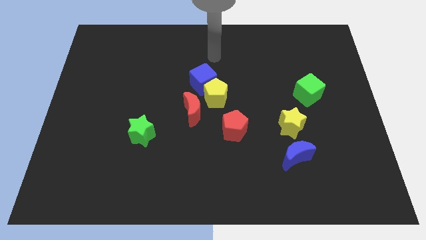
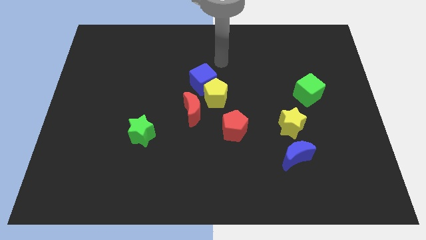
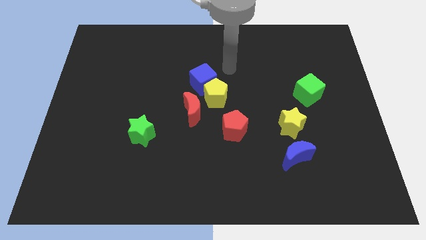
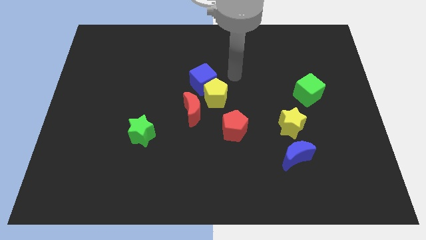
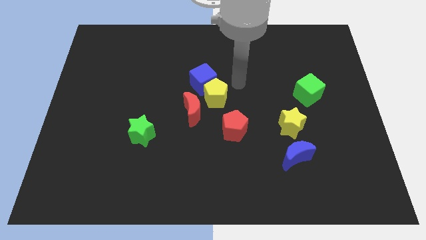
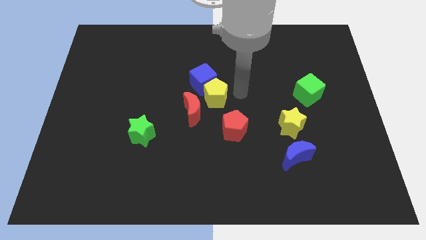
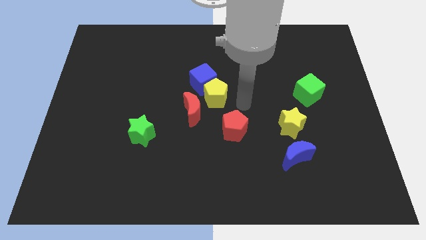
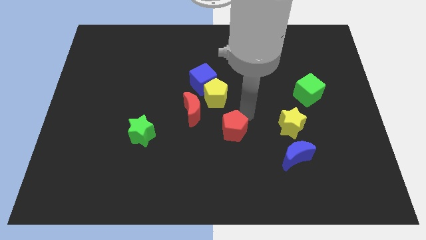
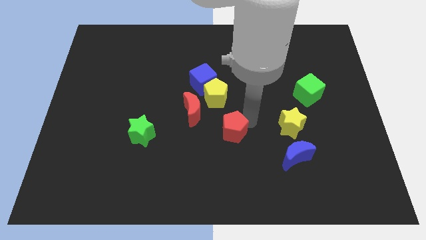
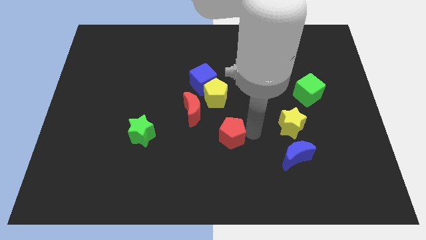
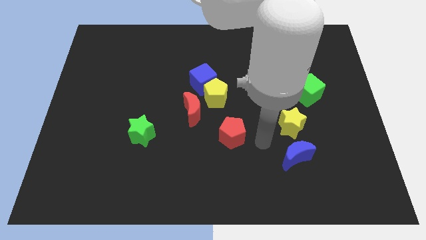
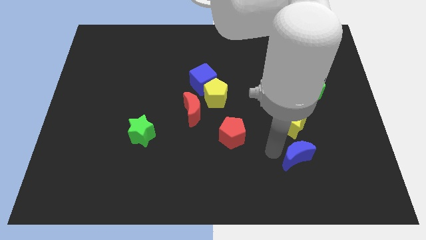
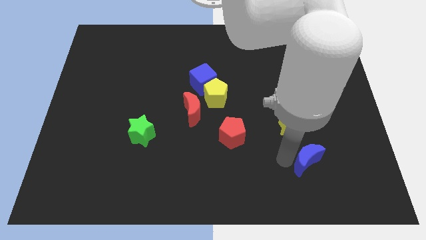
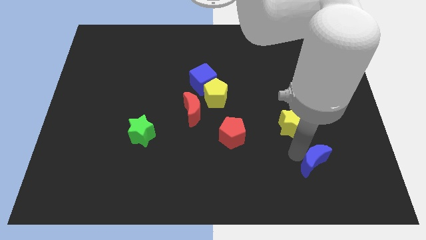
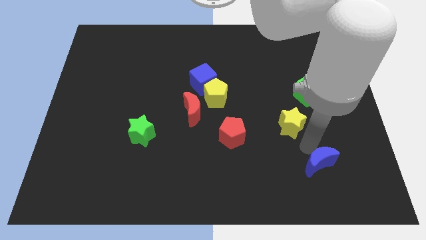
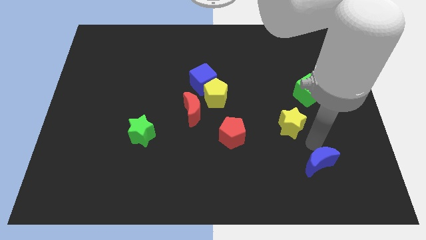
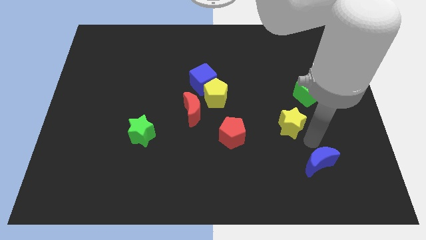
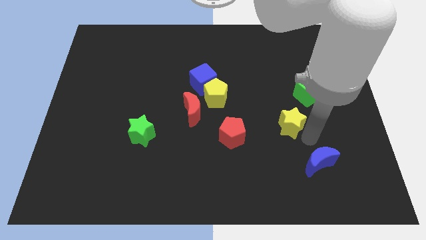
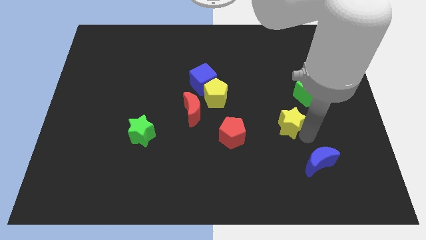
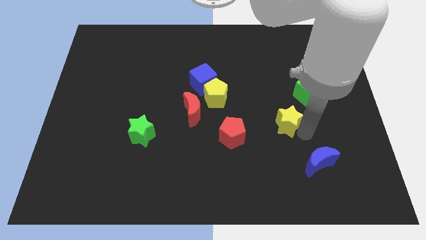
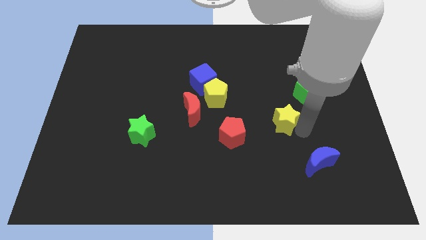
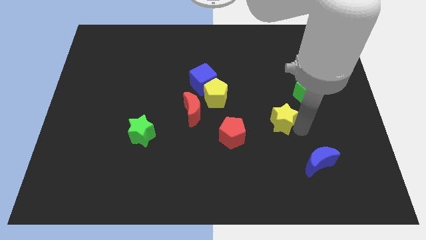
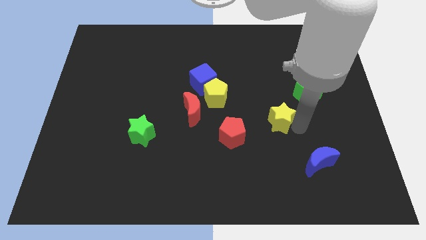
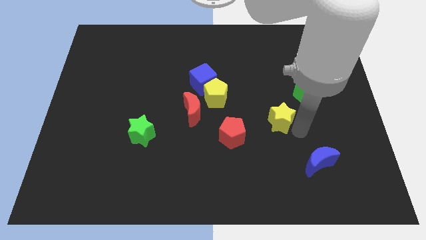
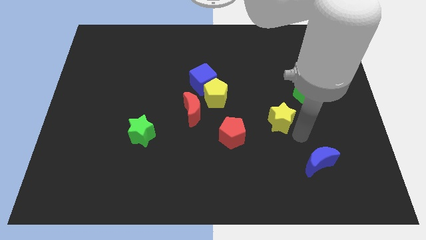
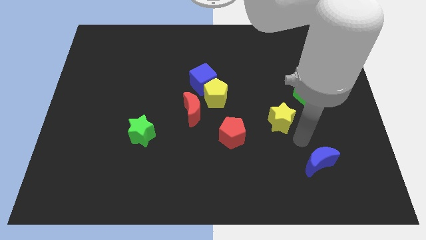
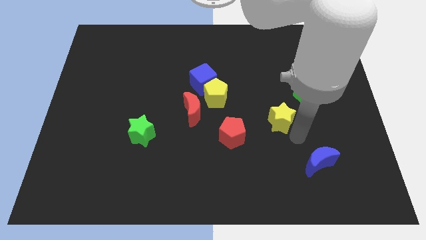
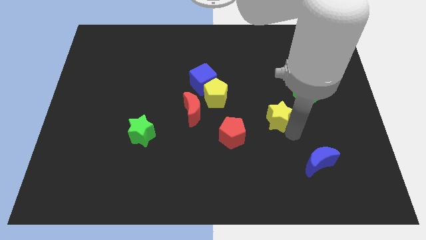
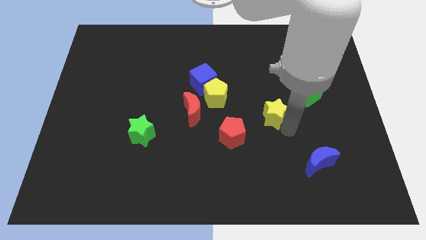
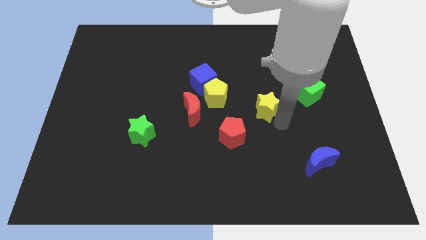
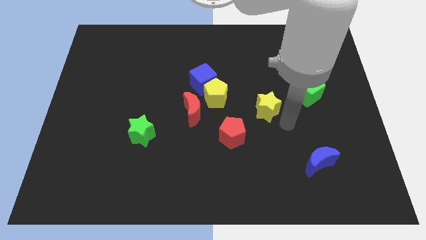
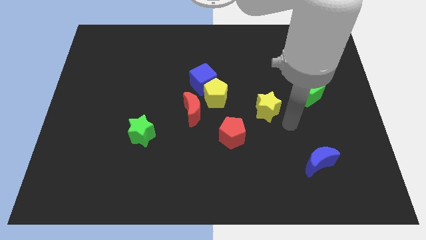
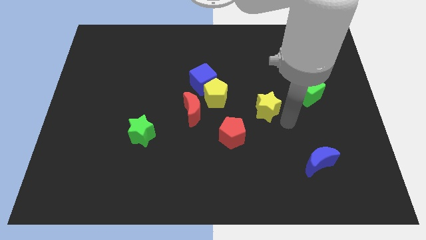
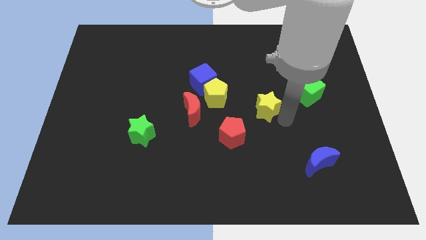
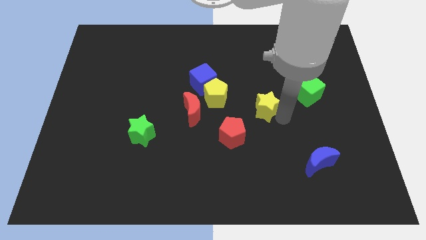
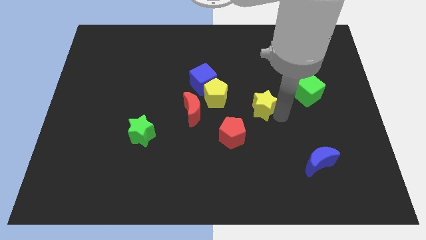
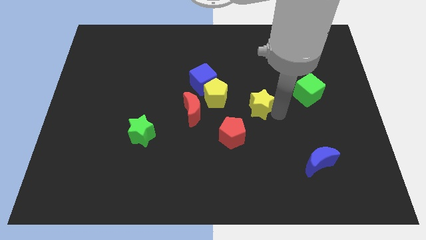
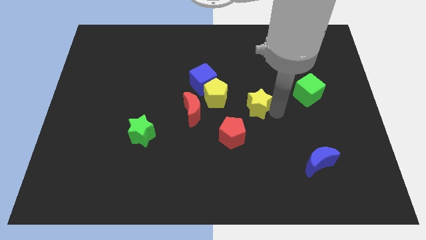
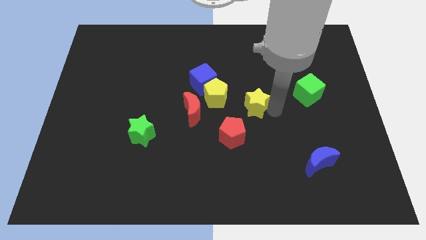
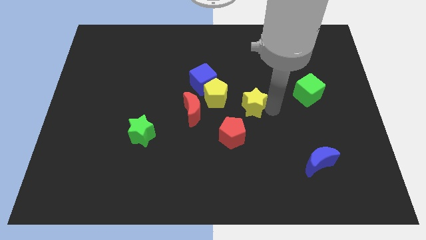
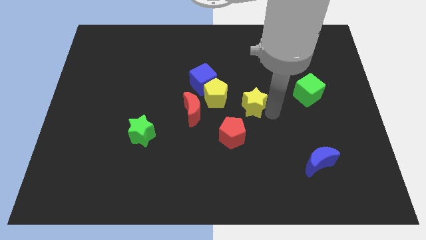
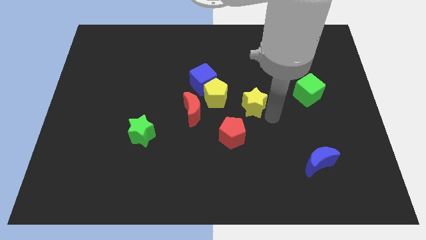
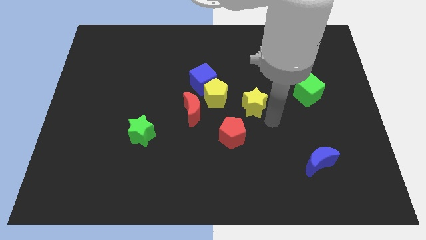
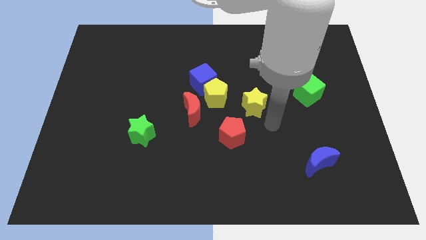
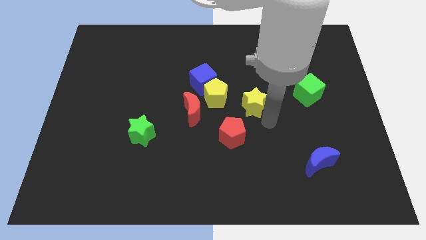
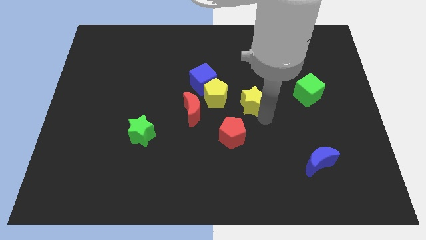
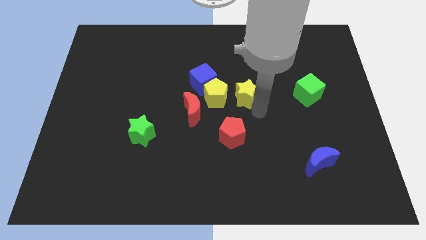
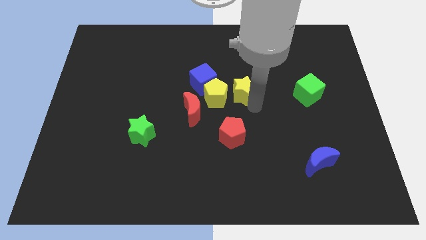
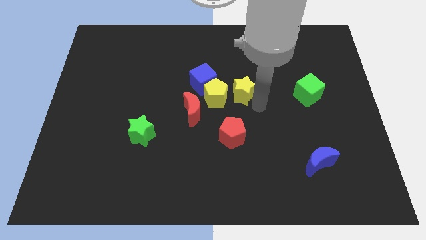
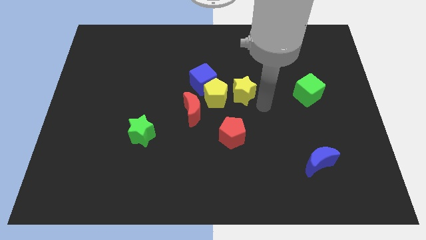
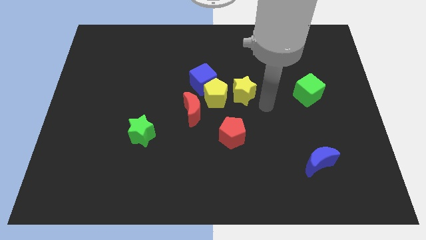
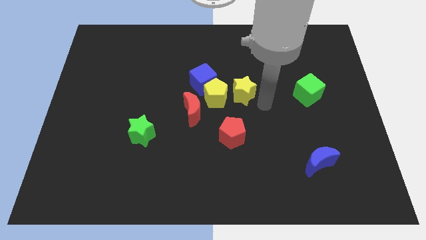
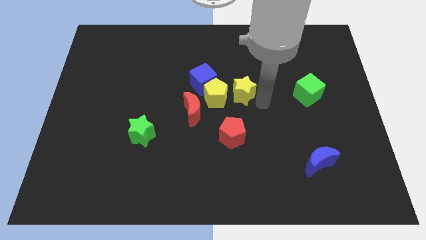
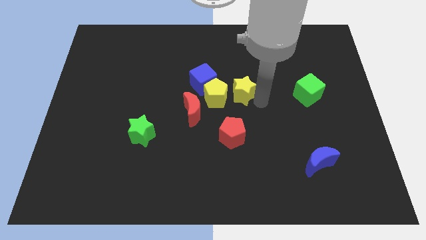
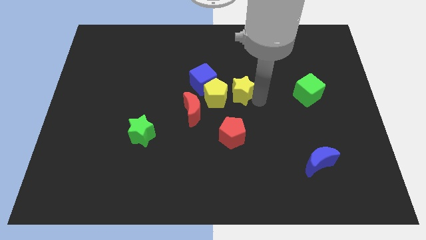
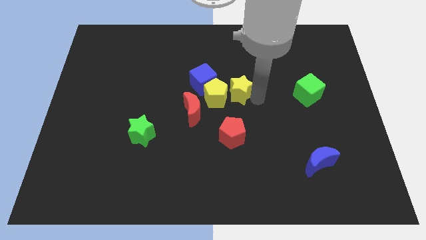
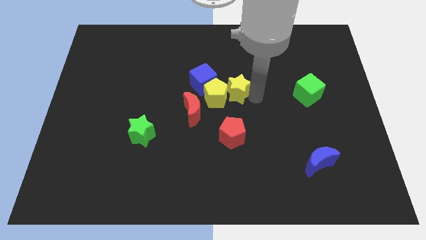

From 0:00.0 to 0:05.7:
put the yellow star to the top right side of the red moon

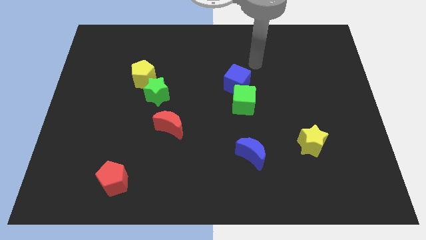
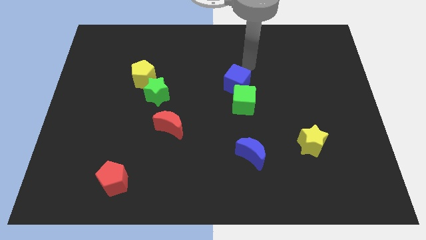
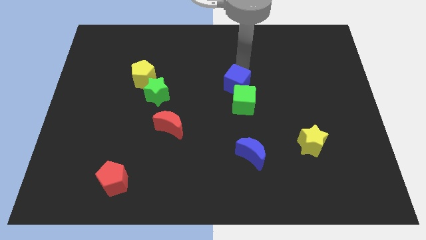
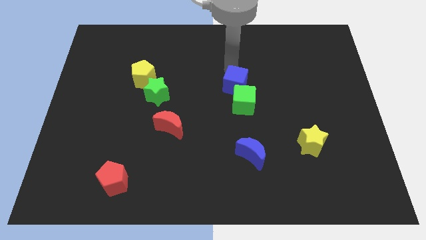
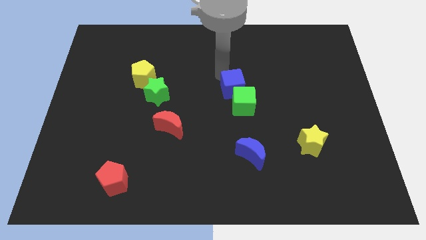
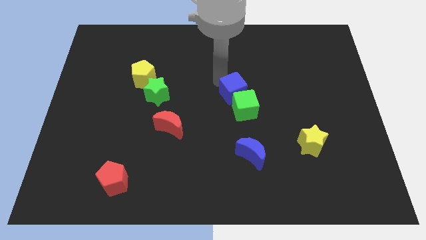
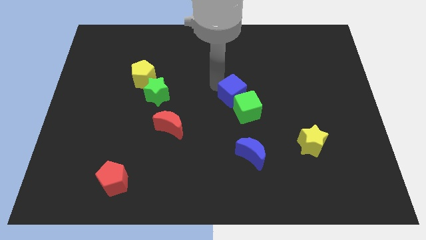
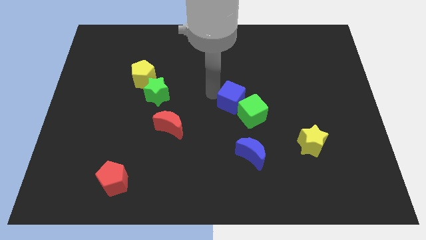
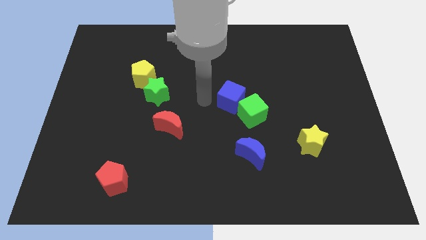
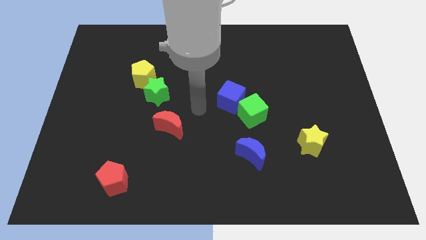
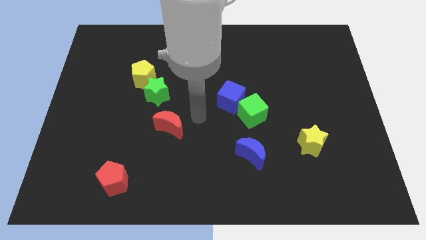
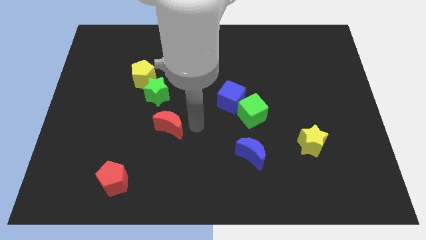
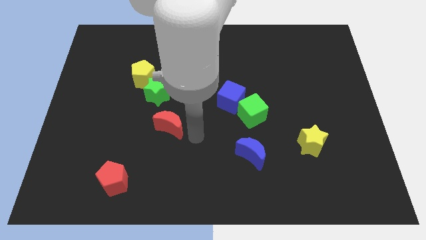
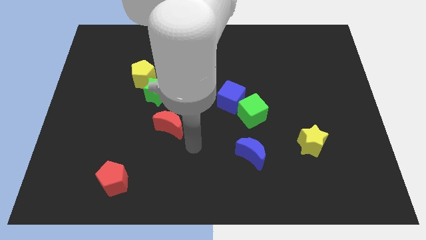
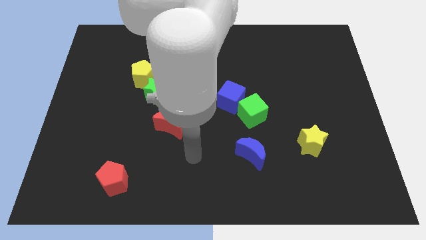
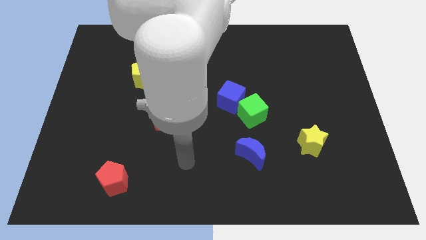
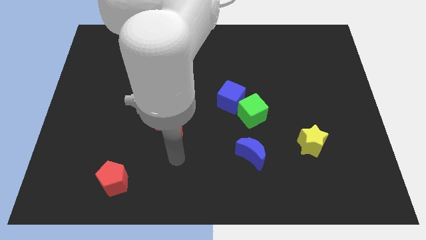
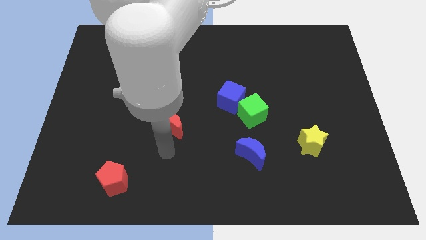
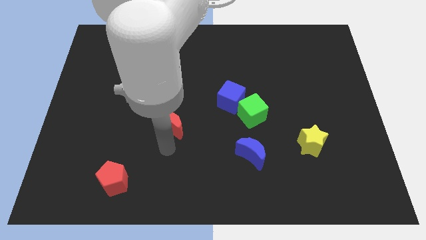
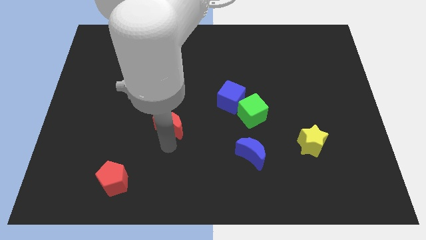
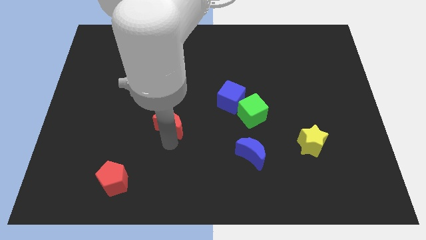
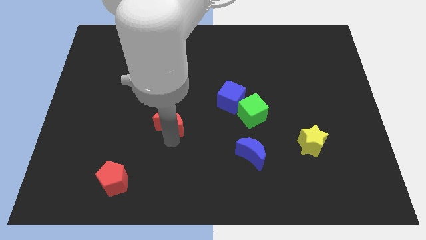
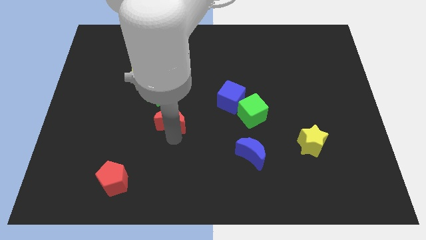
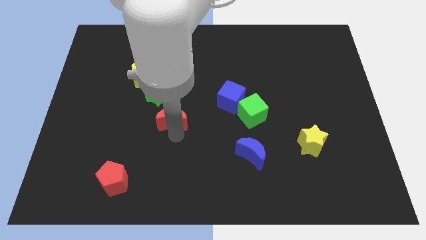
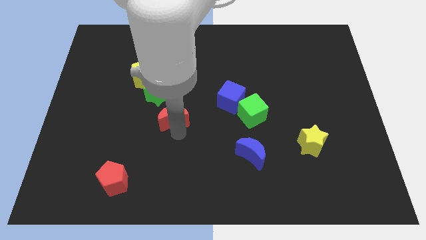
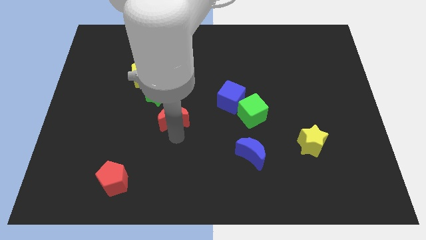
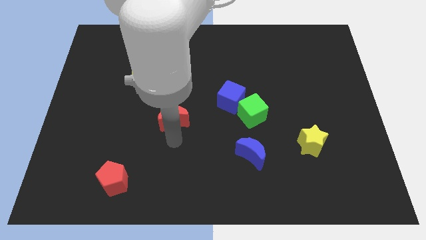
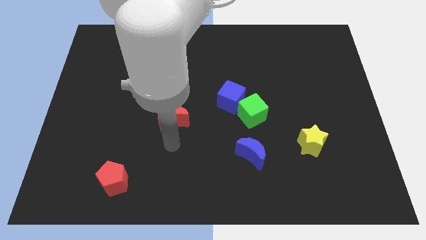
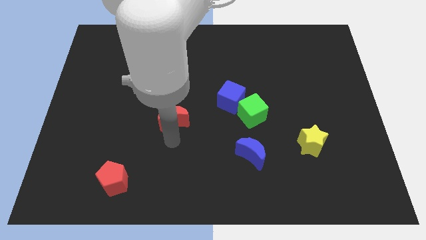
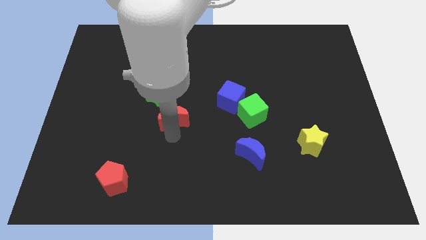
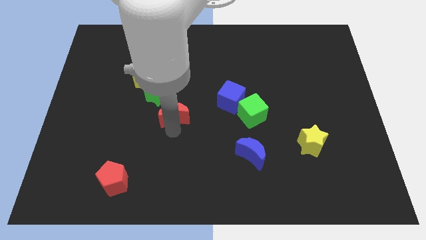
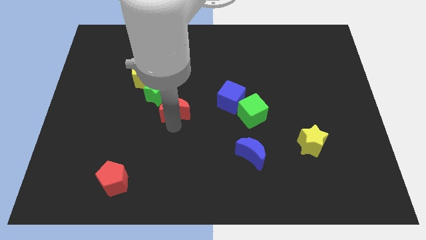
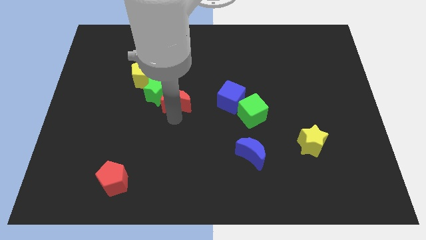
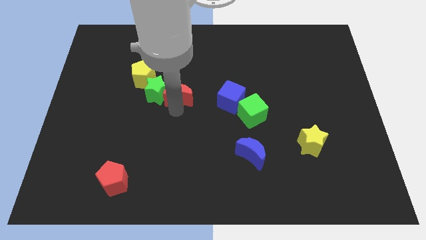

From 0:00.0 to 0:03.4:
move the red moon to the top right side of the green star
